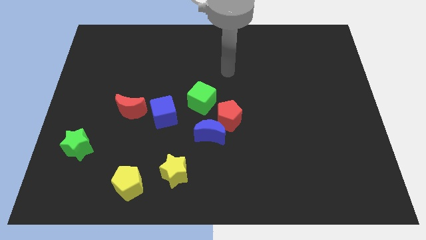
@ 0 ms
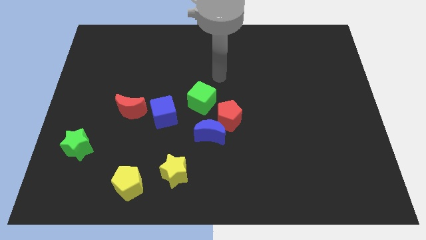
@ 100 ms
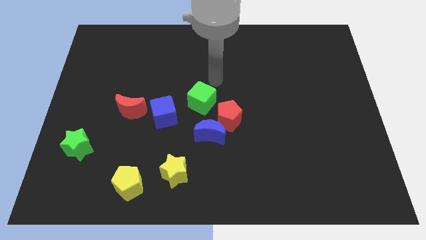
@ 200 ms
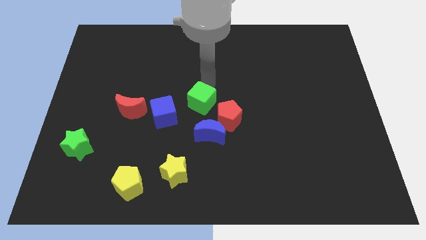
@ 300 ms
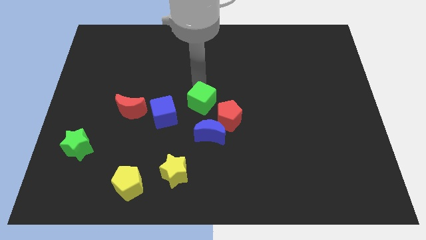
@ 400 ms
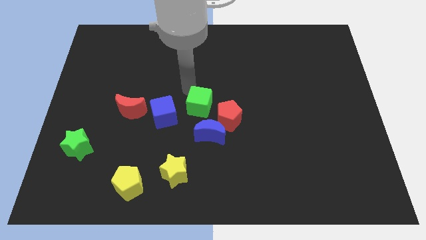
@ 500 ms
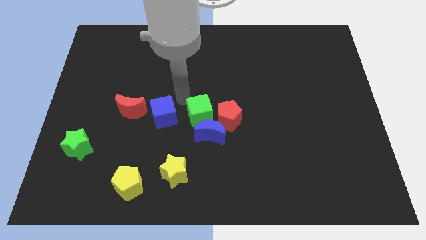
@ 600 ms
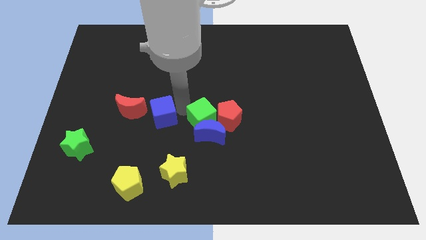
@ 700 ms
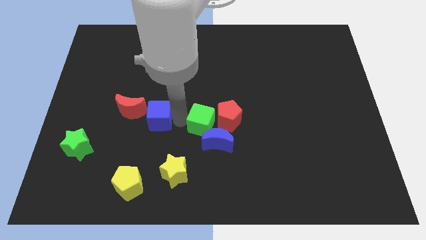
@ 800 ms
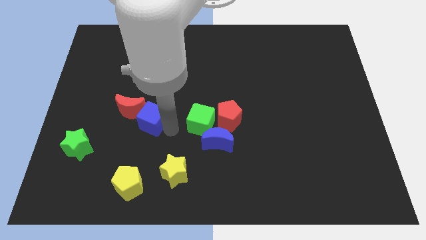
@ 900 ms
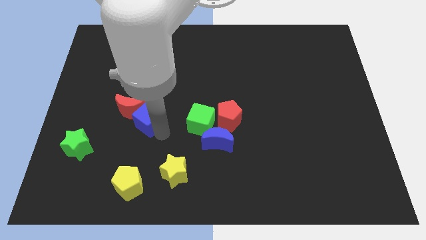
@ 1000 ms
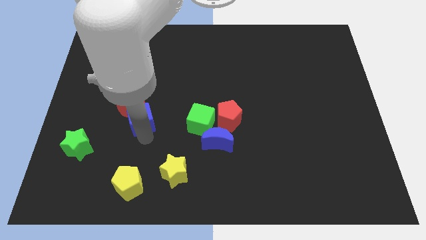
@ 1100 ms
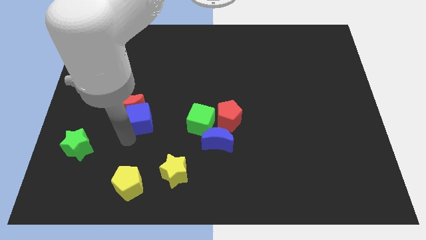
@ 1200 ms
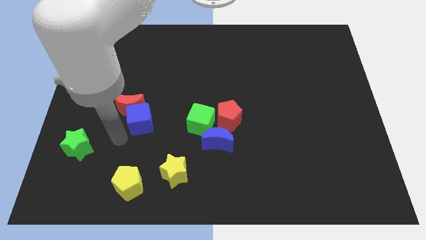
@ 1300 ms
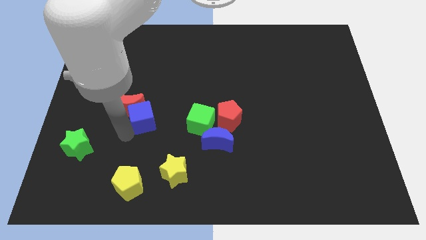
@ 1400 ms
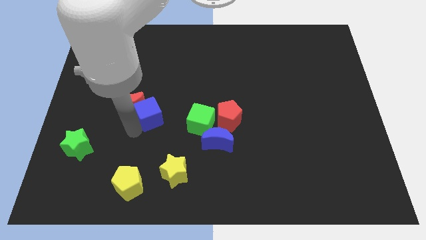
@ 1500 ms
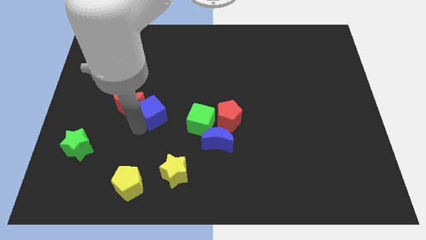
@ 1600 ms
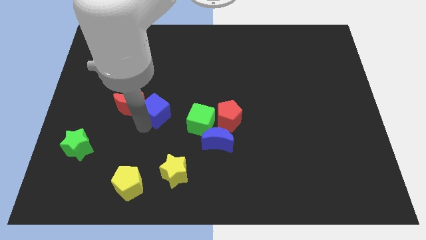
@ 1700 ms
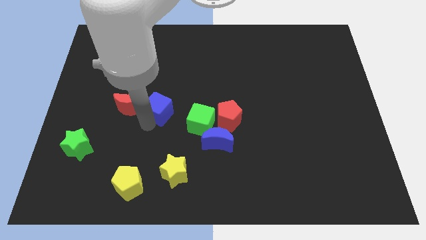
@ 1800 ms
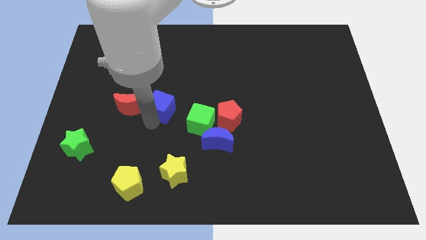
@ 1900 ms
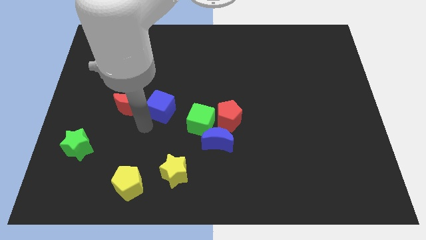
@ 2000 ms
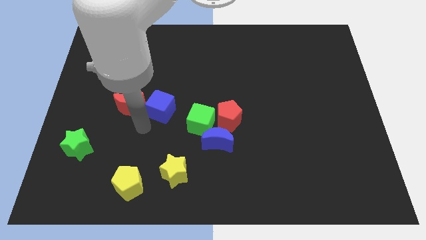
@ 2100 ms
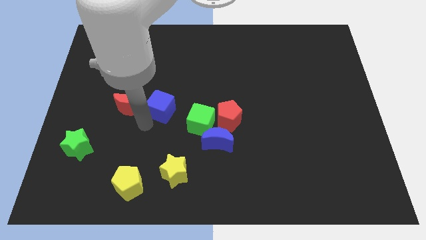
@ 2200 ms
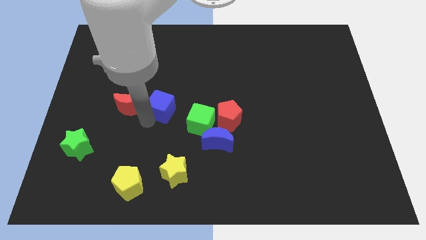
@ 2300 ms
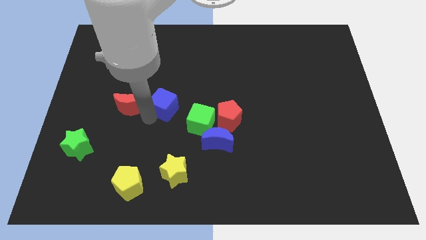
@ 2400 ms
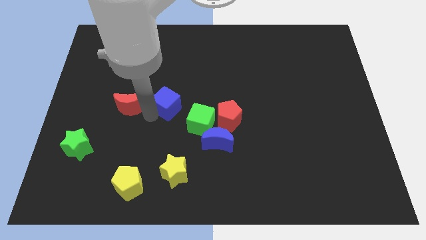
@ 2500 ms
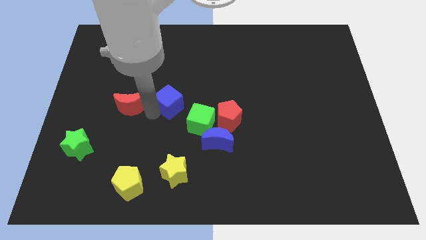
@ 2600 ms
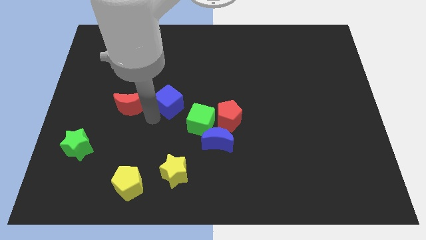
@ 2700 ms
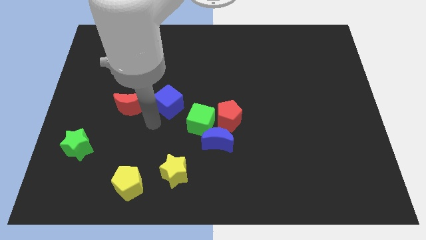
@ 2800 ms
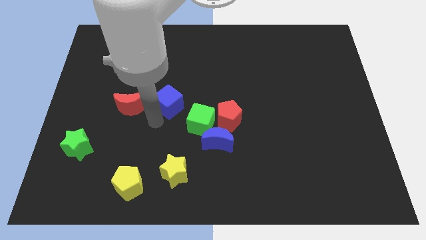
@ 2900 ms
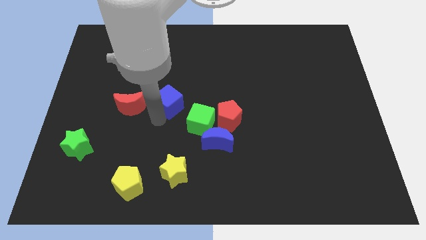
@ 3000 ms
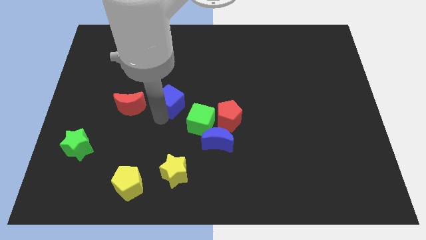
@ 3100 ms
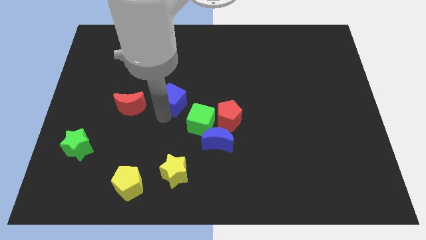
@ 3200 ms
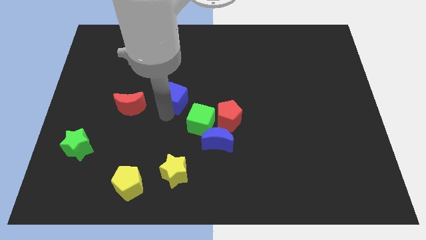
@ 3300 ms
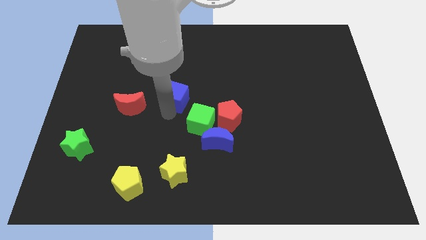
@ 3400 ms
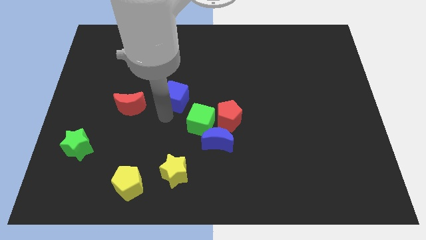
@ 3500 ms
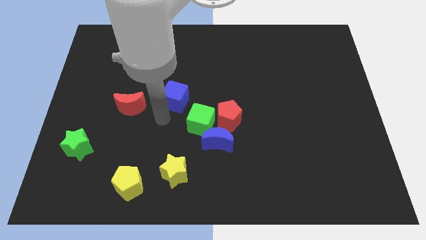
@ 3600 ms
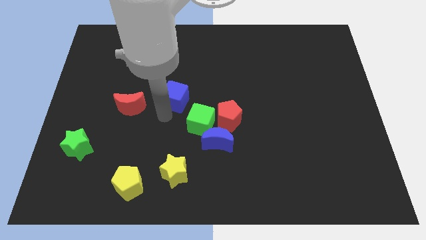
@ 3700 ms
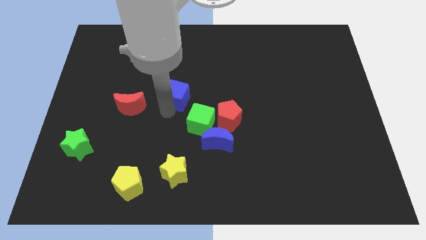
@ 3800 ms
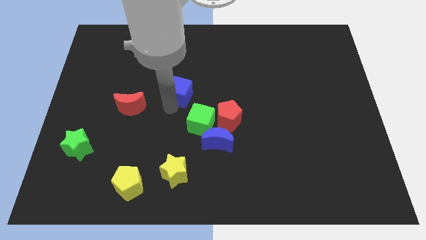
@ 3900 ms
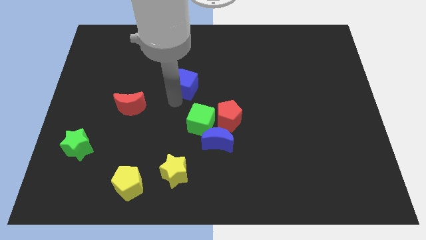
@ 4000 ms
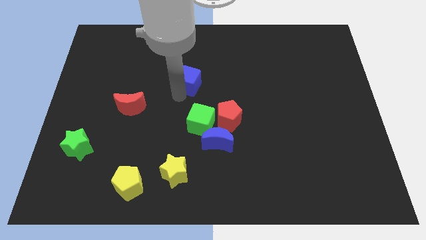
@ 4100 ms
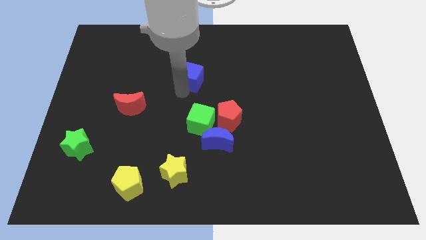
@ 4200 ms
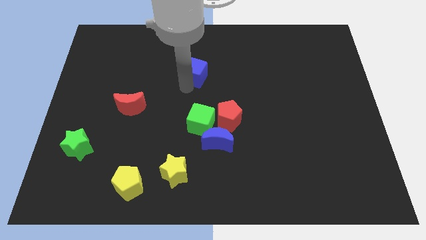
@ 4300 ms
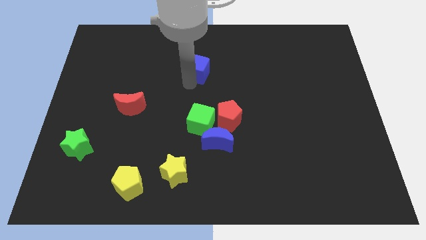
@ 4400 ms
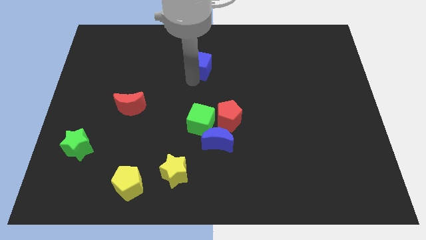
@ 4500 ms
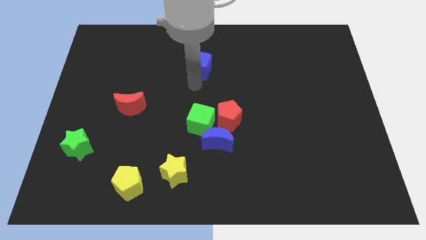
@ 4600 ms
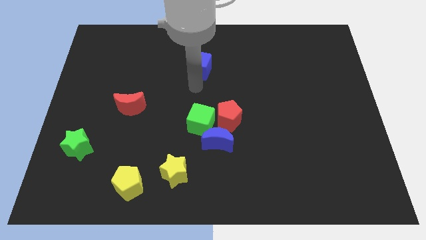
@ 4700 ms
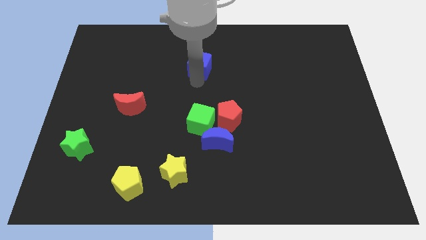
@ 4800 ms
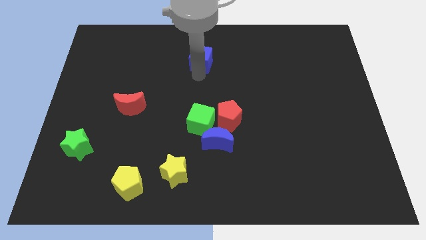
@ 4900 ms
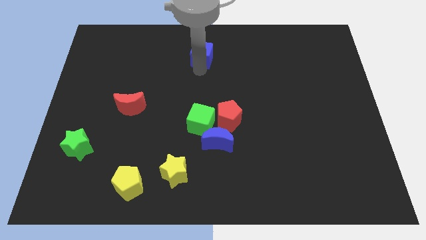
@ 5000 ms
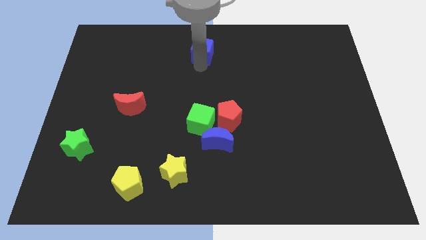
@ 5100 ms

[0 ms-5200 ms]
push the blue cube to the top side
